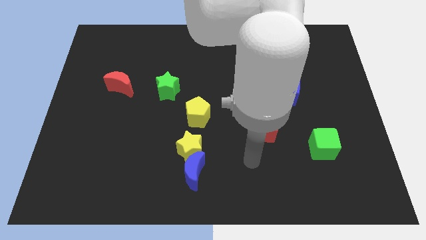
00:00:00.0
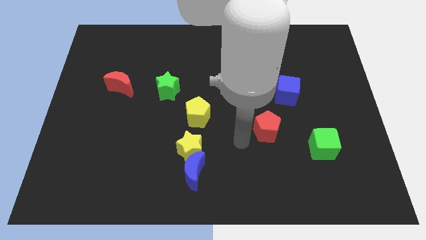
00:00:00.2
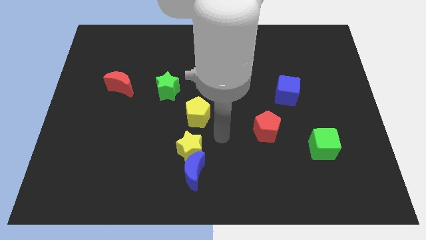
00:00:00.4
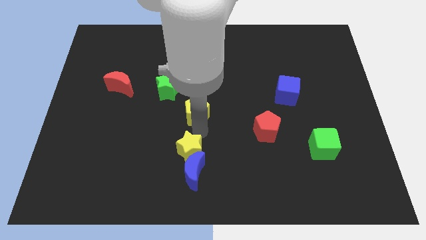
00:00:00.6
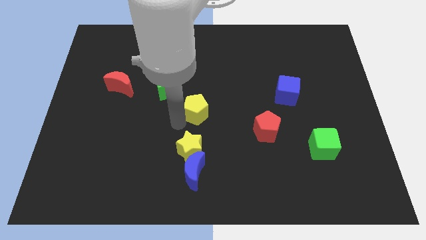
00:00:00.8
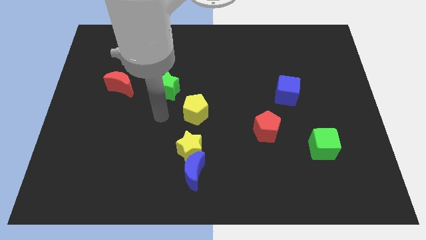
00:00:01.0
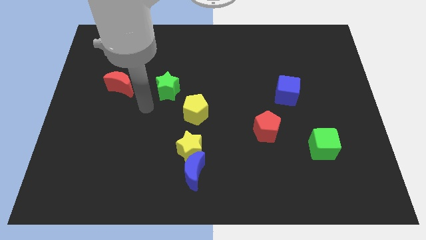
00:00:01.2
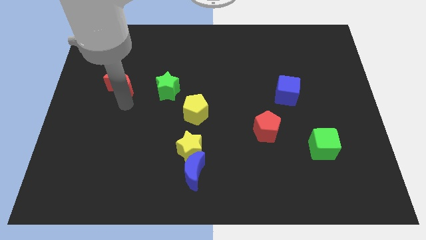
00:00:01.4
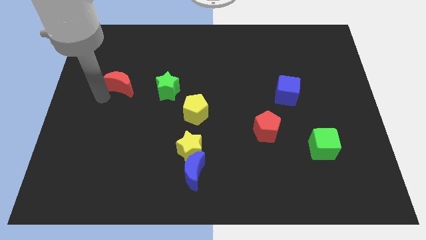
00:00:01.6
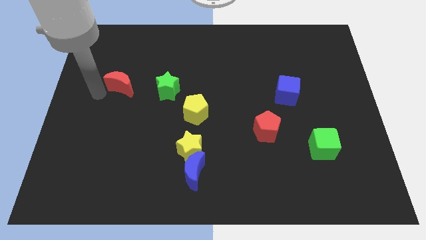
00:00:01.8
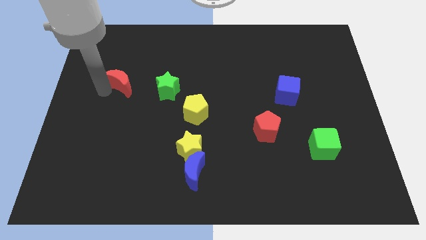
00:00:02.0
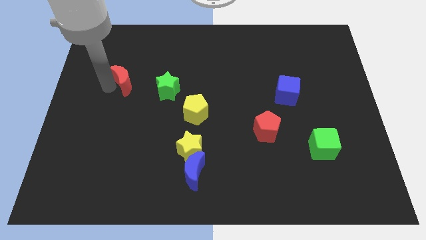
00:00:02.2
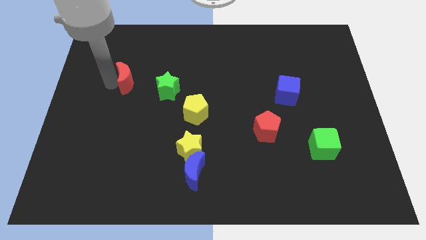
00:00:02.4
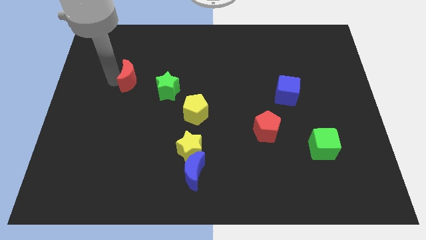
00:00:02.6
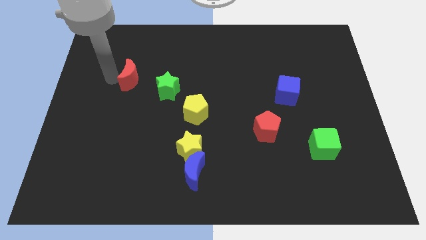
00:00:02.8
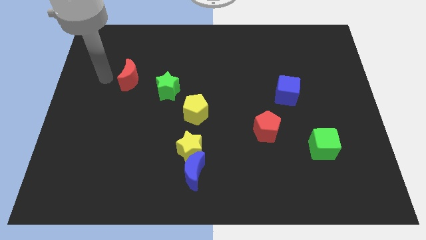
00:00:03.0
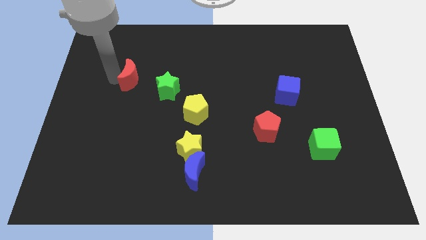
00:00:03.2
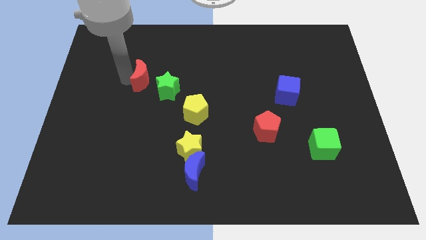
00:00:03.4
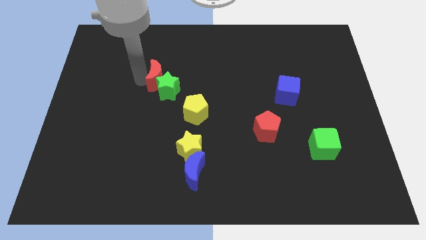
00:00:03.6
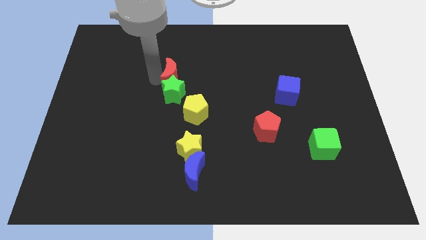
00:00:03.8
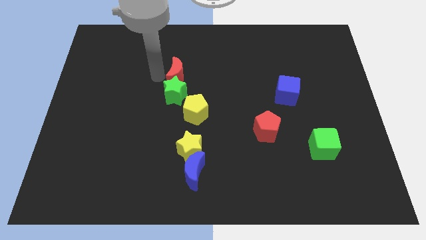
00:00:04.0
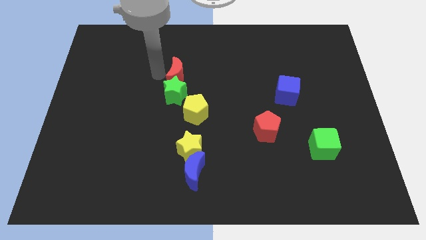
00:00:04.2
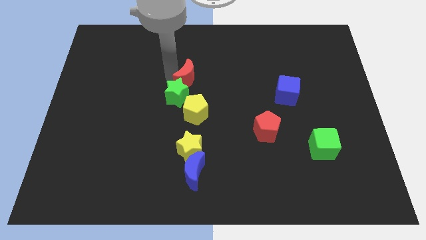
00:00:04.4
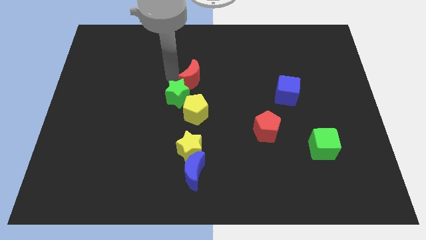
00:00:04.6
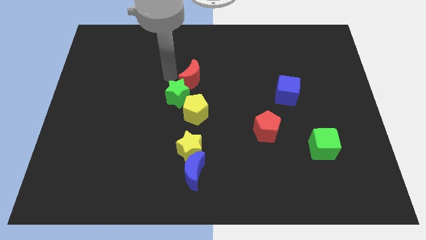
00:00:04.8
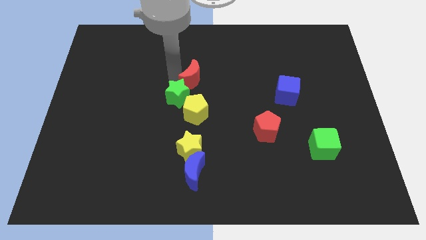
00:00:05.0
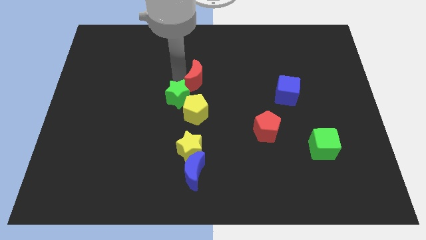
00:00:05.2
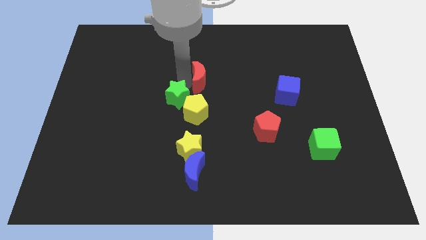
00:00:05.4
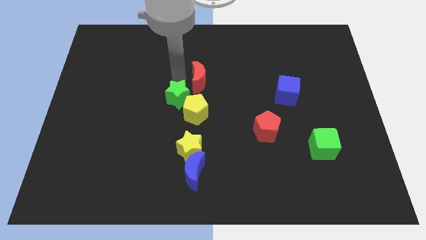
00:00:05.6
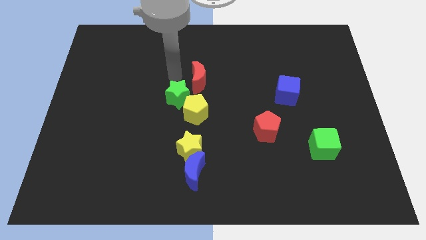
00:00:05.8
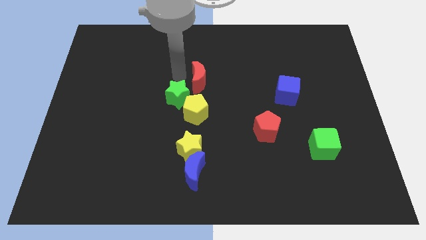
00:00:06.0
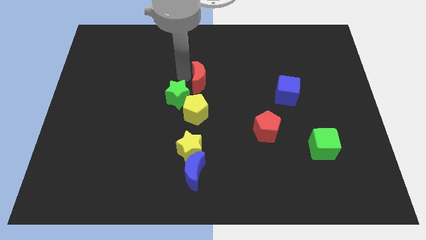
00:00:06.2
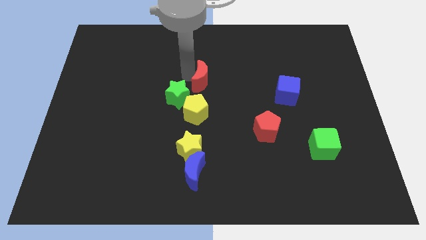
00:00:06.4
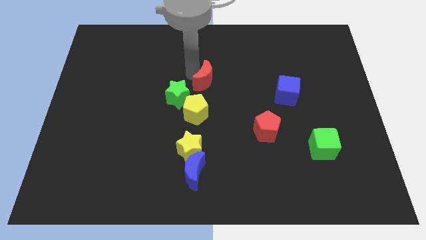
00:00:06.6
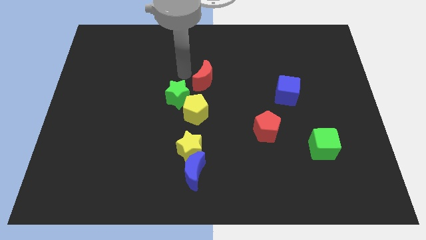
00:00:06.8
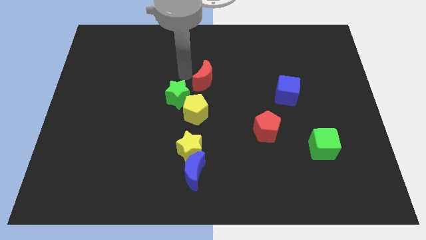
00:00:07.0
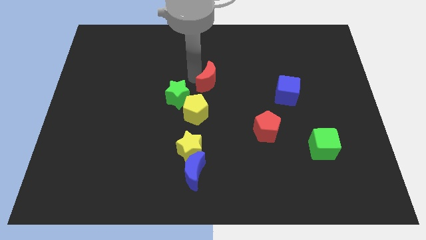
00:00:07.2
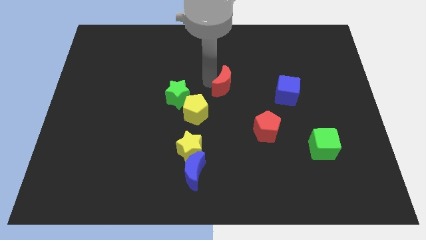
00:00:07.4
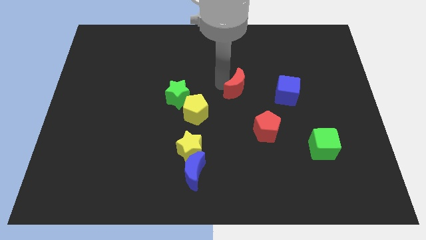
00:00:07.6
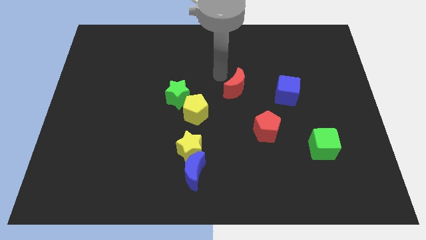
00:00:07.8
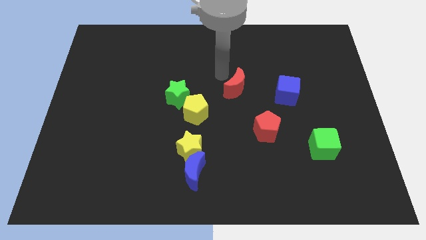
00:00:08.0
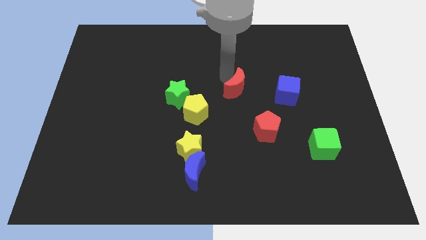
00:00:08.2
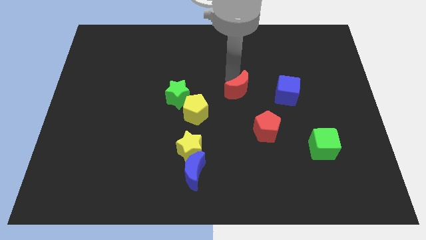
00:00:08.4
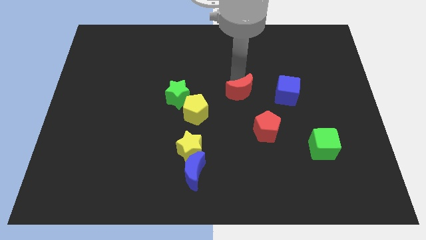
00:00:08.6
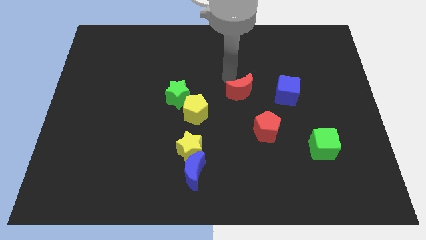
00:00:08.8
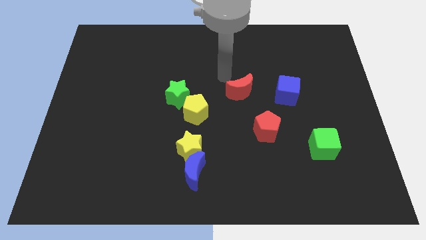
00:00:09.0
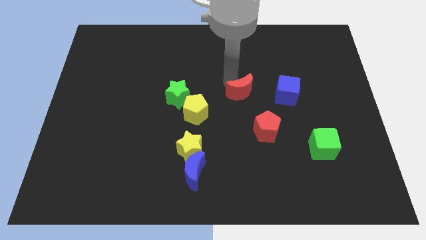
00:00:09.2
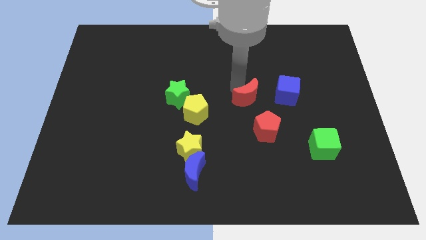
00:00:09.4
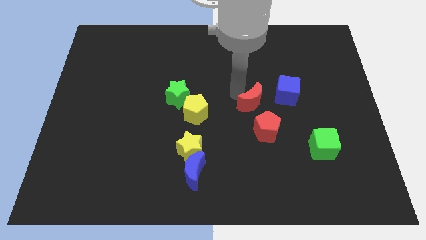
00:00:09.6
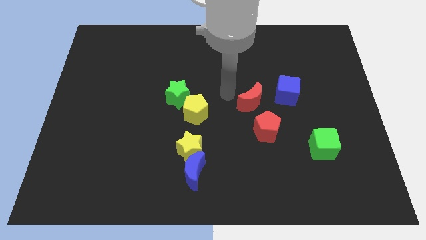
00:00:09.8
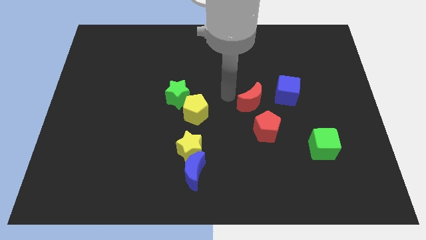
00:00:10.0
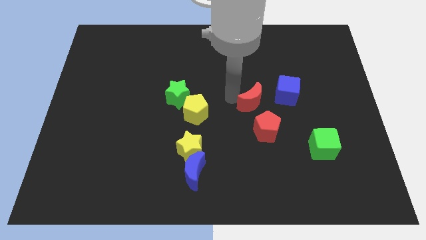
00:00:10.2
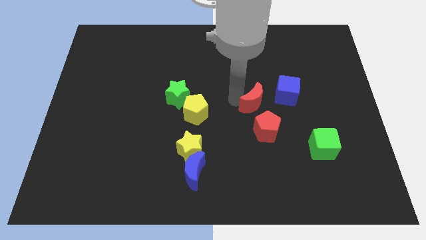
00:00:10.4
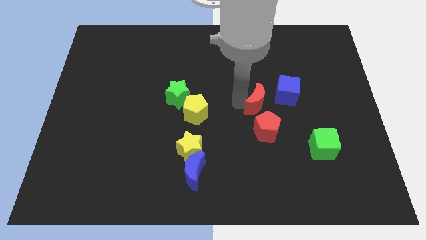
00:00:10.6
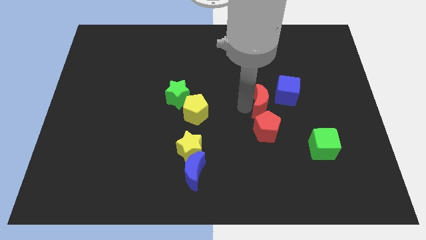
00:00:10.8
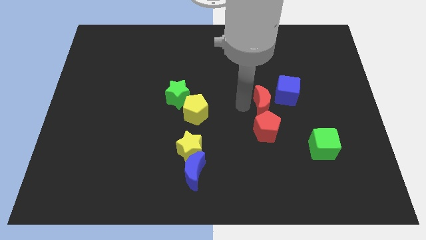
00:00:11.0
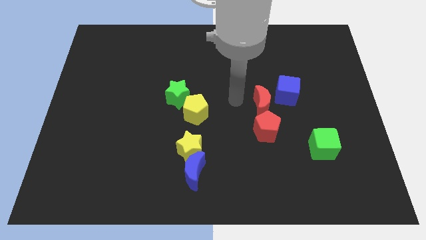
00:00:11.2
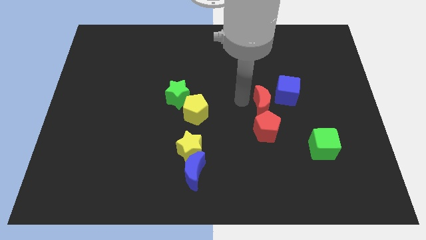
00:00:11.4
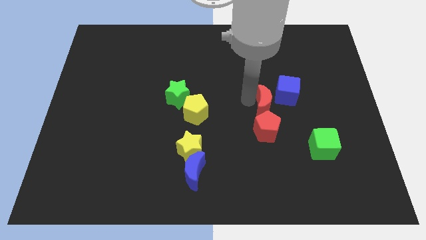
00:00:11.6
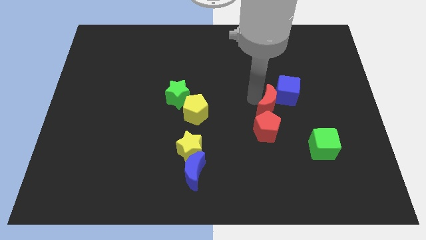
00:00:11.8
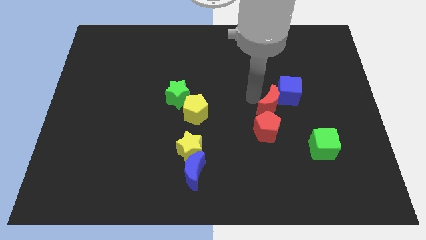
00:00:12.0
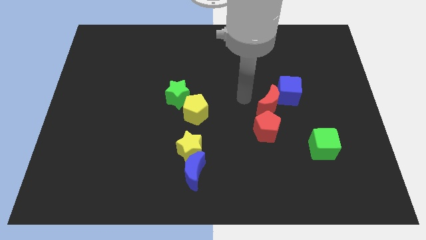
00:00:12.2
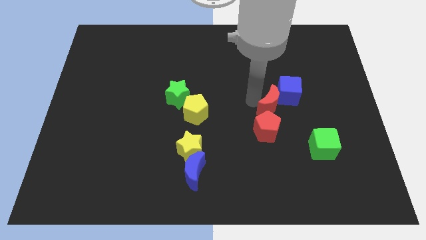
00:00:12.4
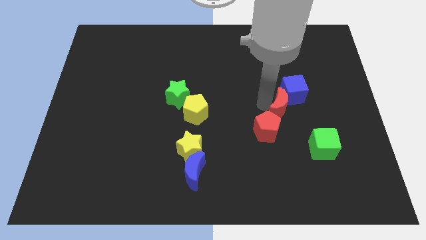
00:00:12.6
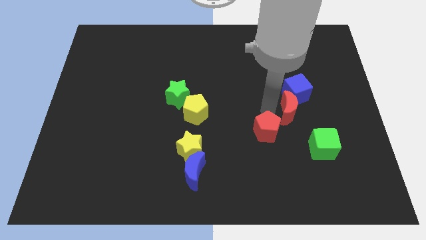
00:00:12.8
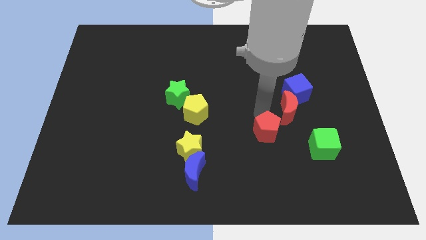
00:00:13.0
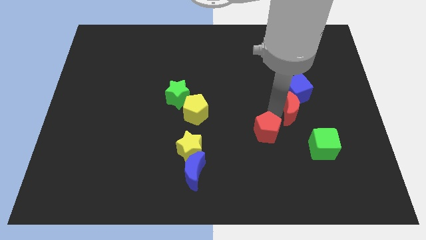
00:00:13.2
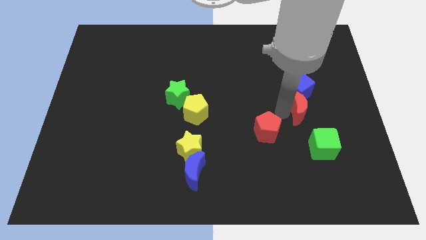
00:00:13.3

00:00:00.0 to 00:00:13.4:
push the red moon to the top side of the green cube

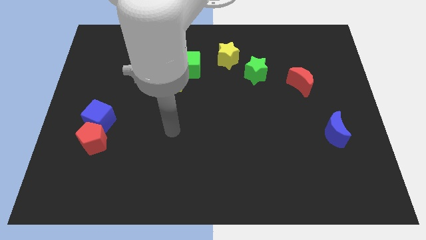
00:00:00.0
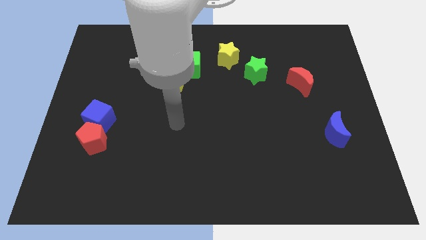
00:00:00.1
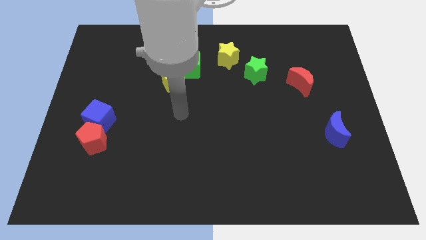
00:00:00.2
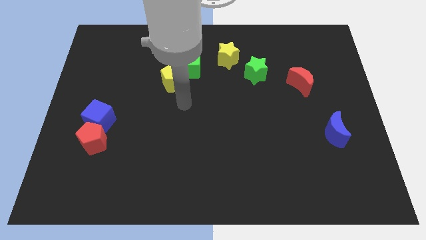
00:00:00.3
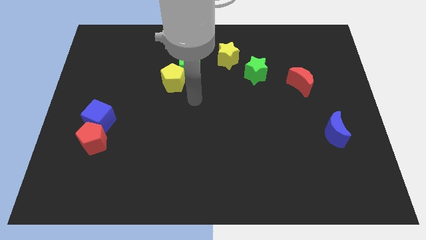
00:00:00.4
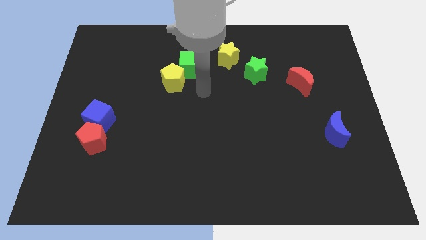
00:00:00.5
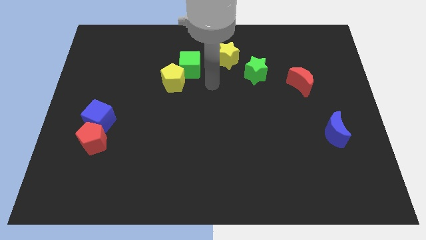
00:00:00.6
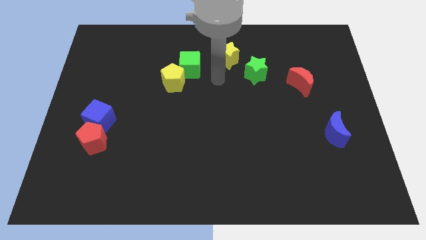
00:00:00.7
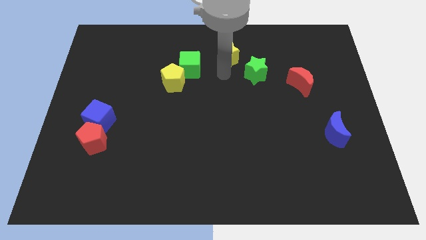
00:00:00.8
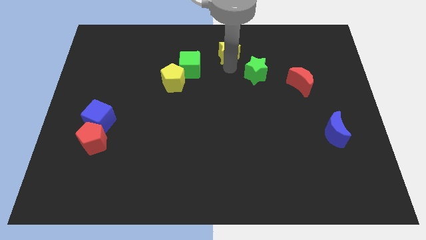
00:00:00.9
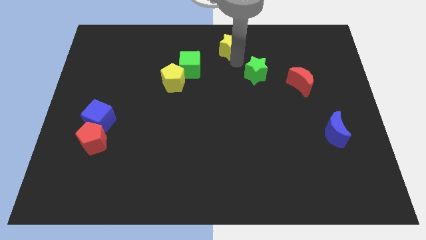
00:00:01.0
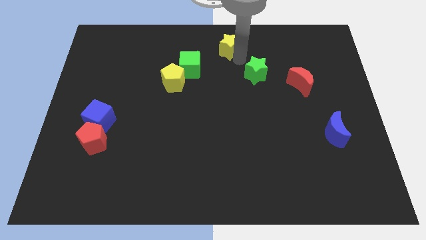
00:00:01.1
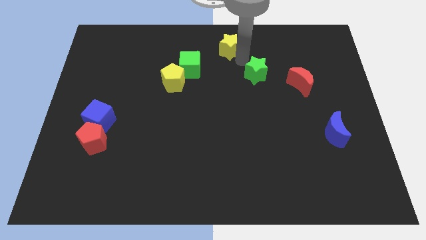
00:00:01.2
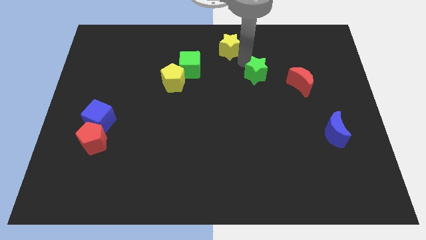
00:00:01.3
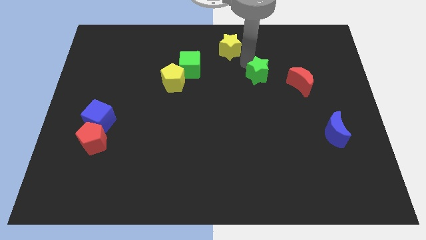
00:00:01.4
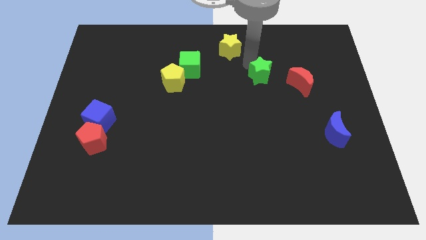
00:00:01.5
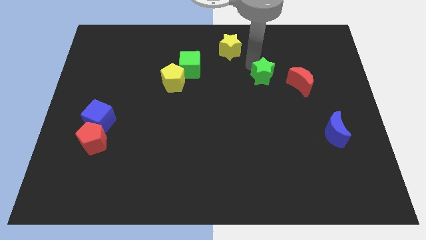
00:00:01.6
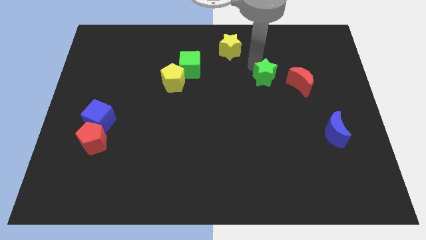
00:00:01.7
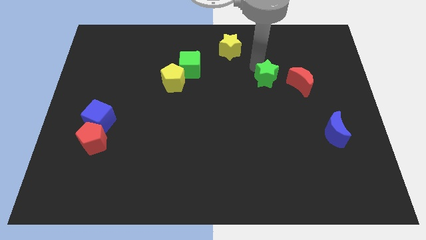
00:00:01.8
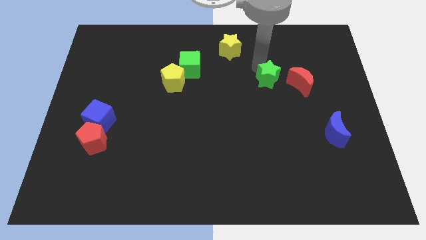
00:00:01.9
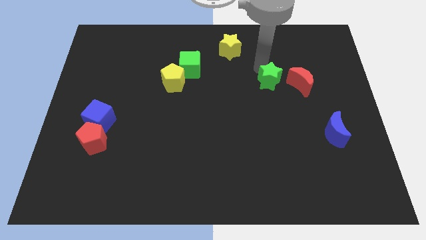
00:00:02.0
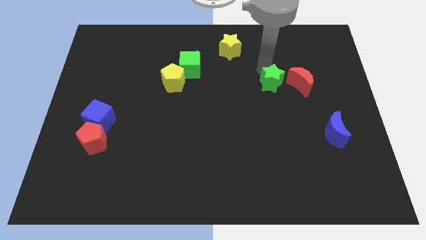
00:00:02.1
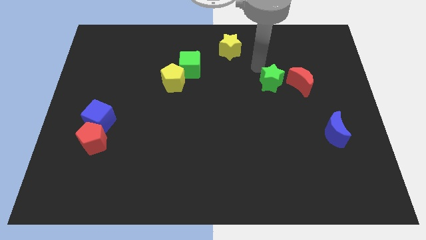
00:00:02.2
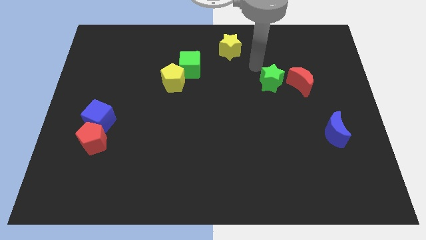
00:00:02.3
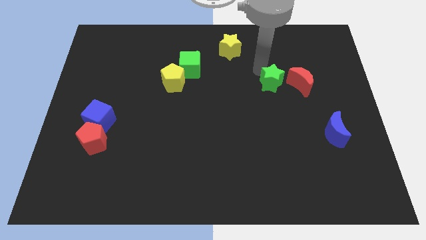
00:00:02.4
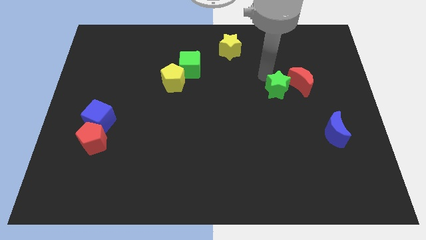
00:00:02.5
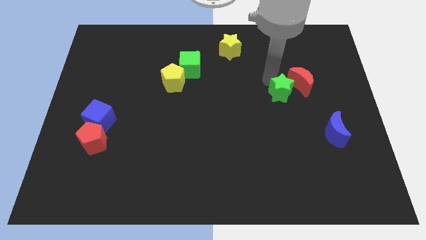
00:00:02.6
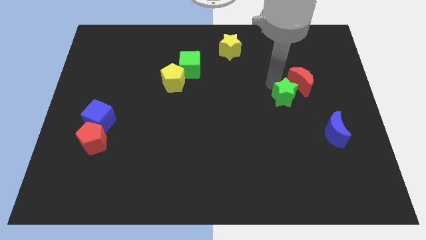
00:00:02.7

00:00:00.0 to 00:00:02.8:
push the green star to the bottom of the red moon
